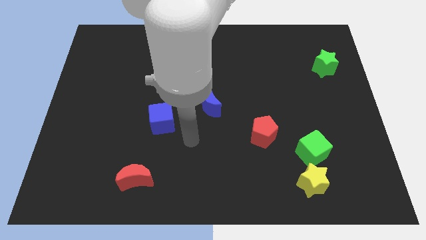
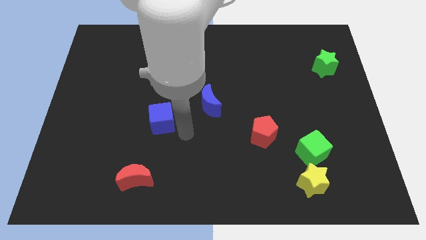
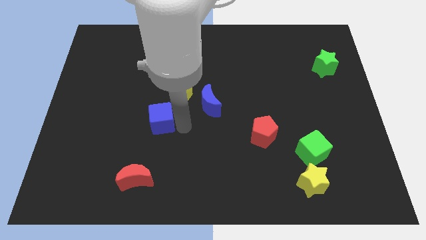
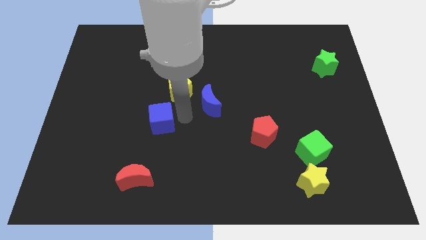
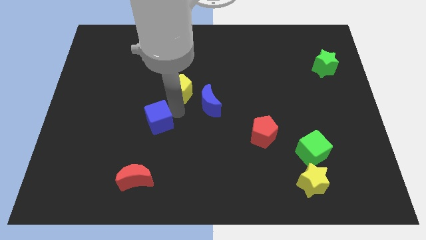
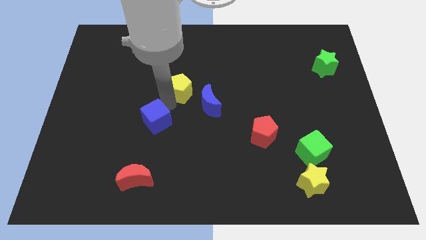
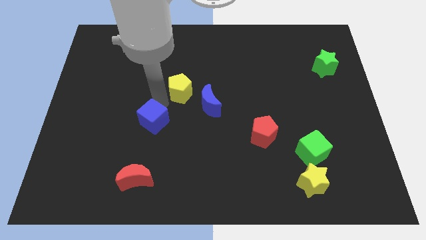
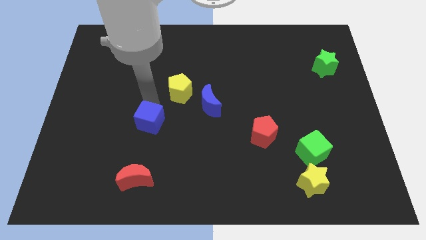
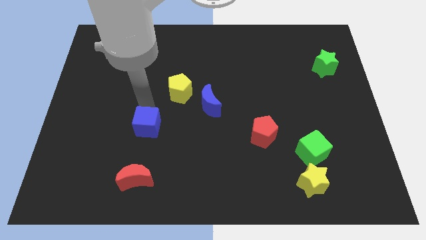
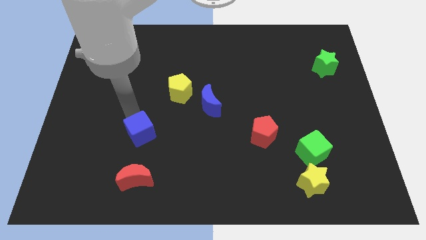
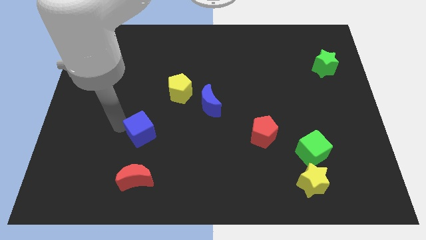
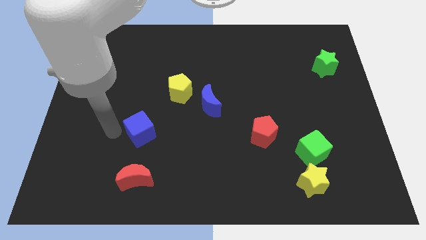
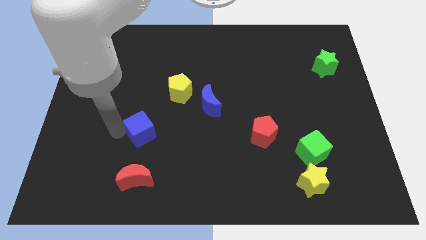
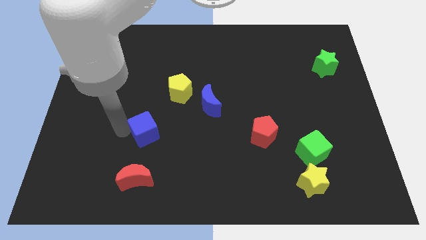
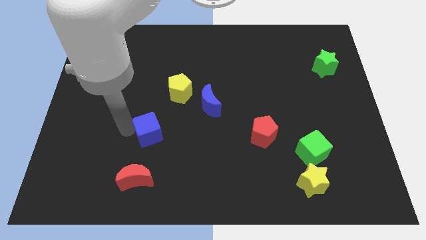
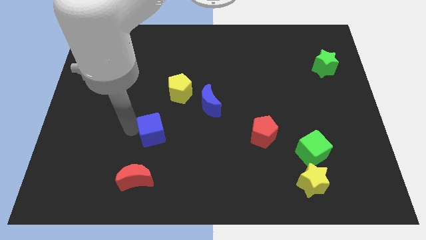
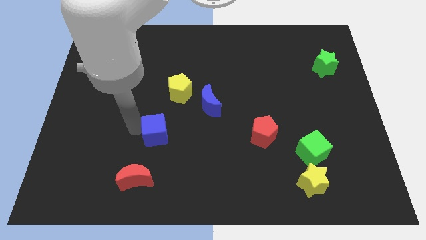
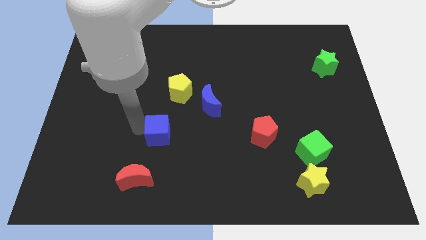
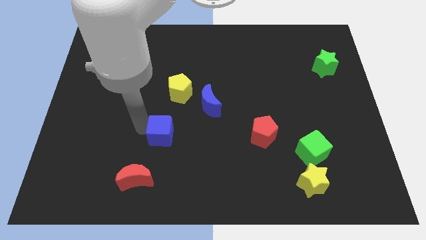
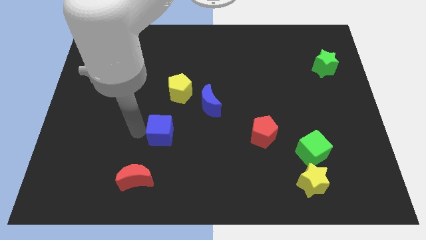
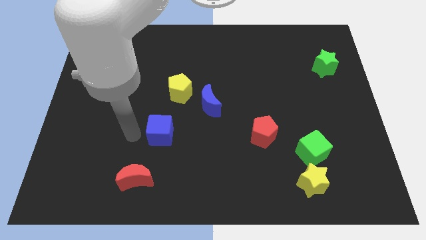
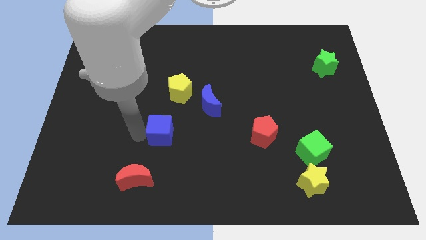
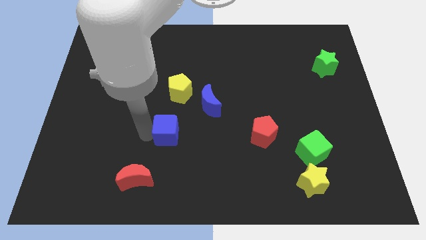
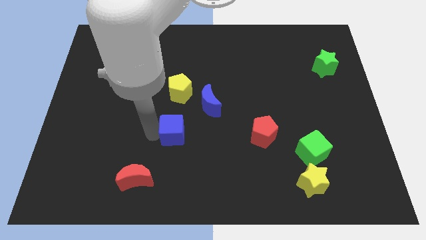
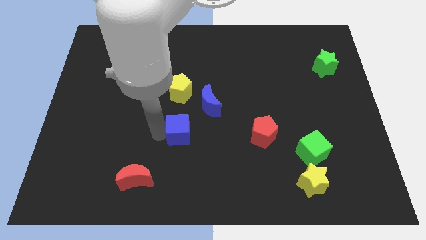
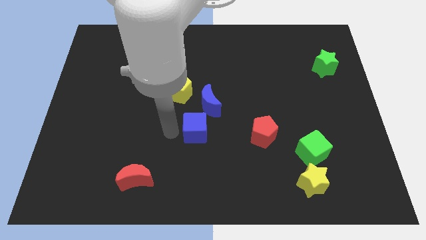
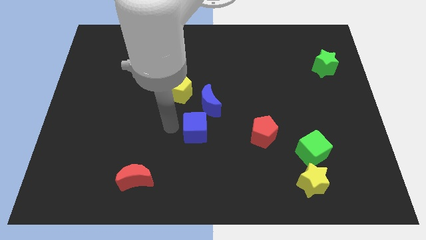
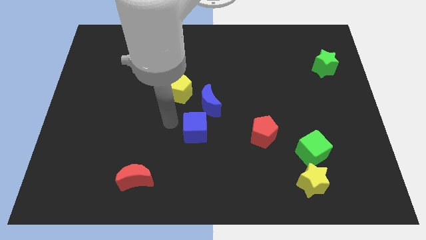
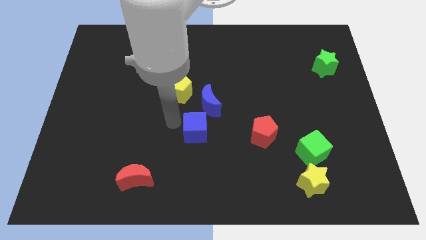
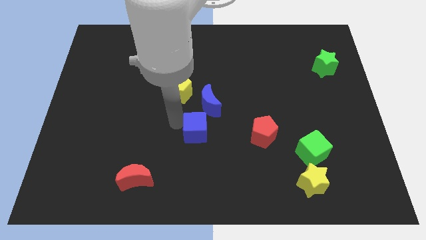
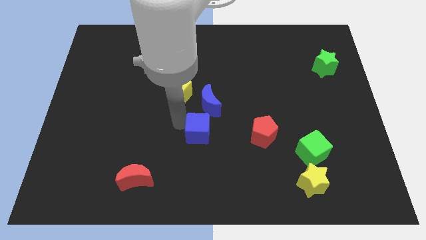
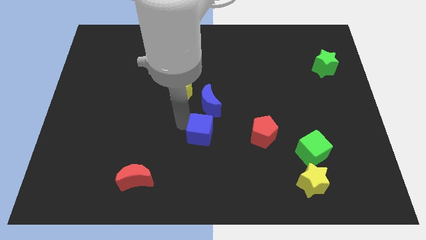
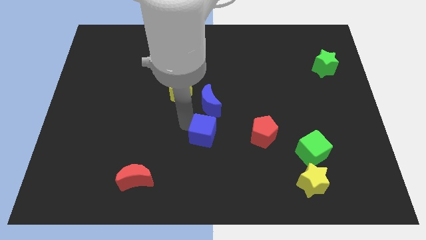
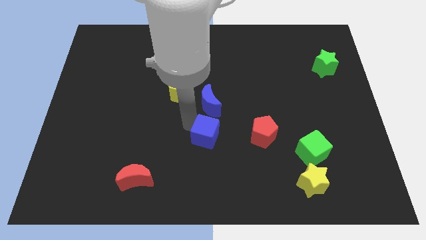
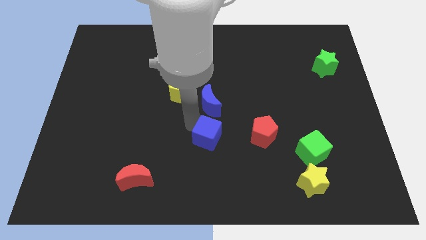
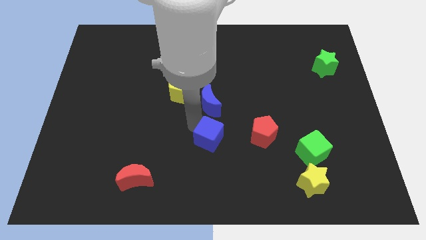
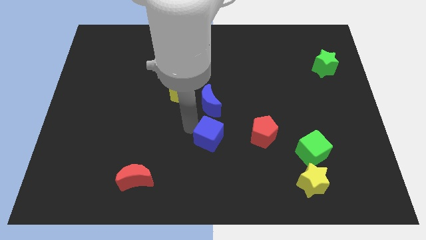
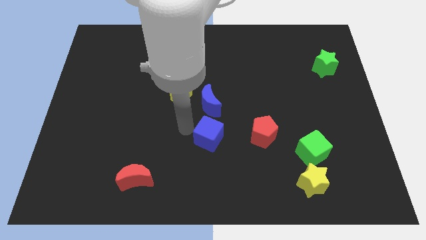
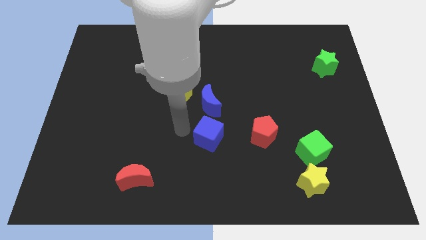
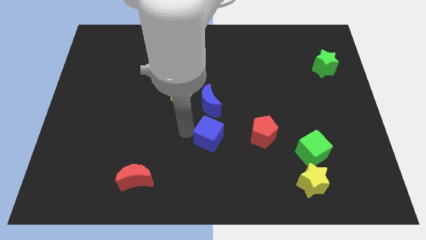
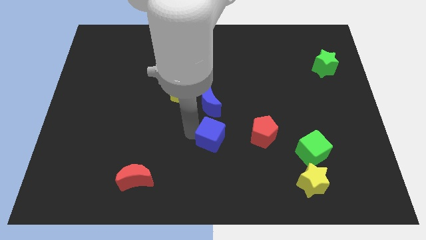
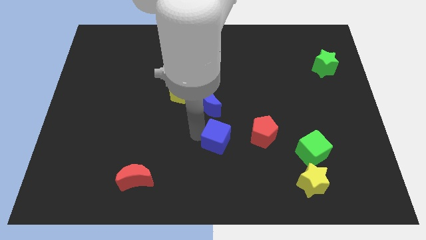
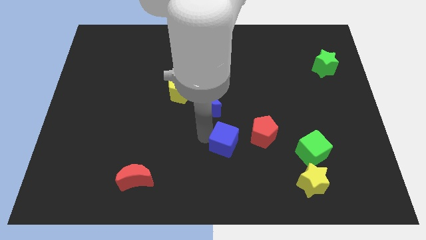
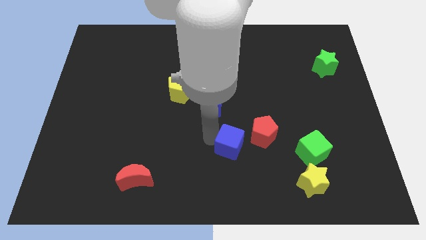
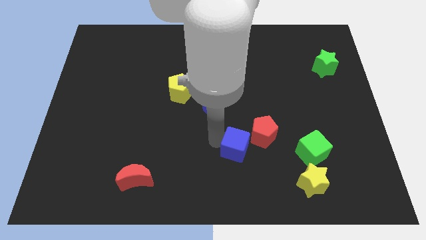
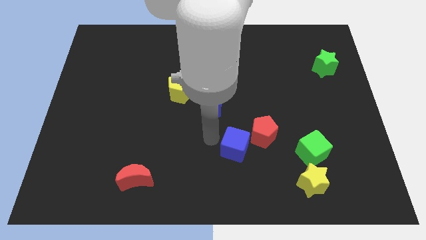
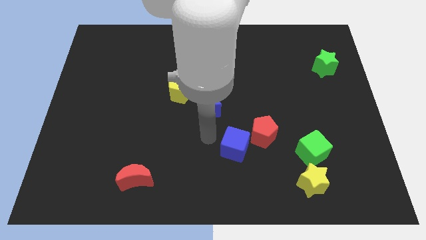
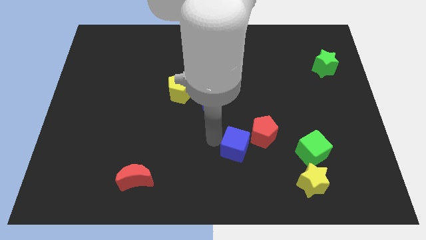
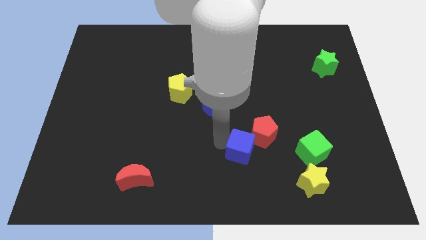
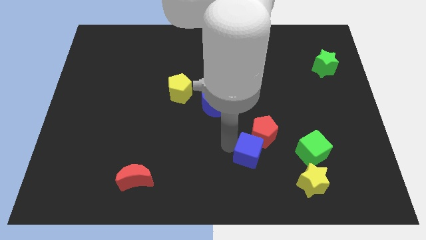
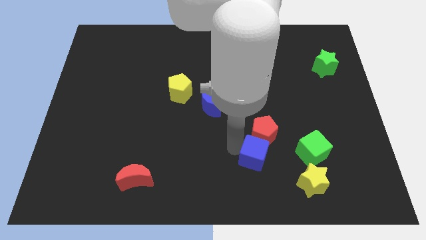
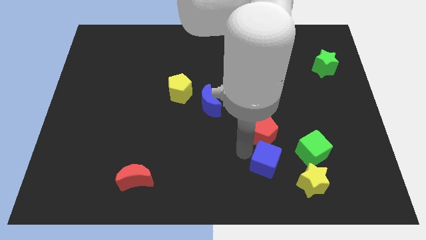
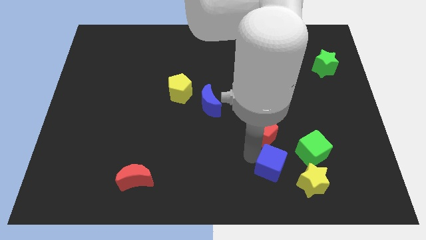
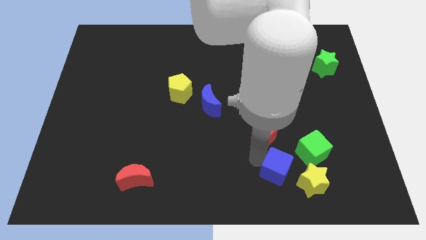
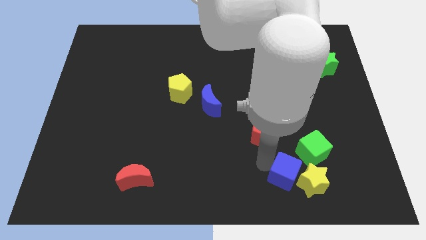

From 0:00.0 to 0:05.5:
put the blue cube towards the yellow star

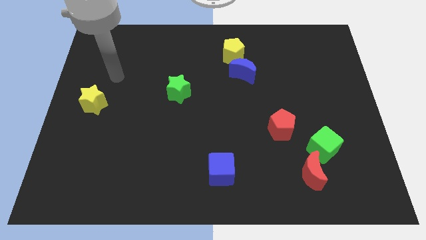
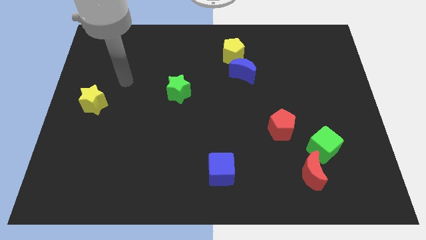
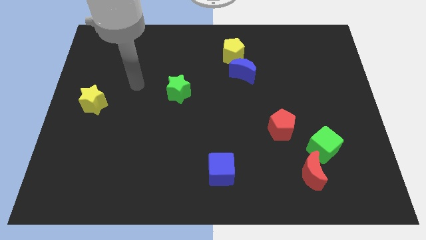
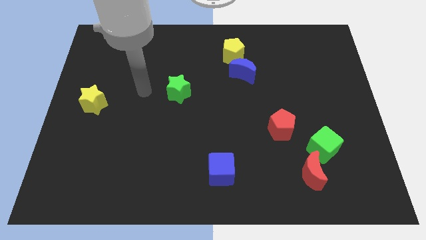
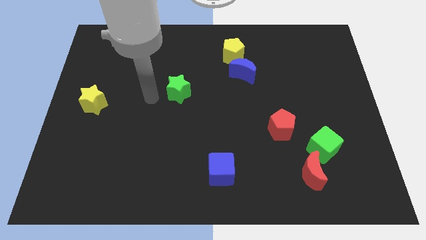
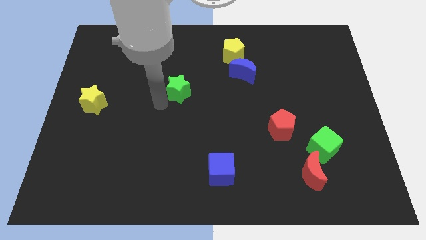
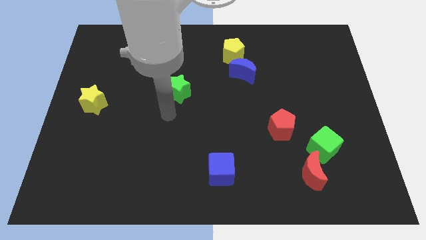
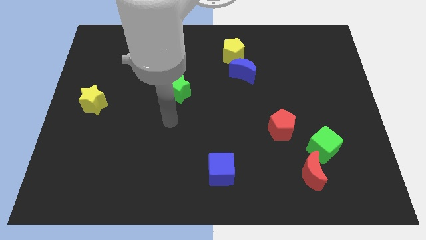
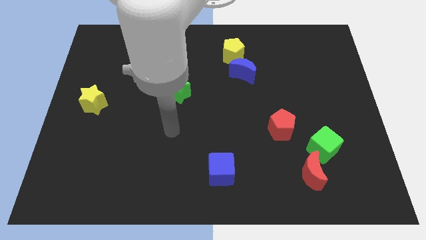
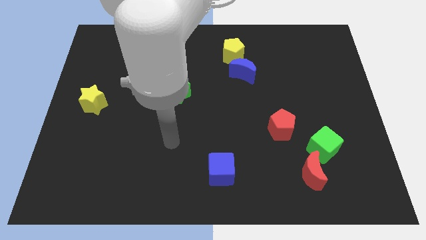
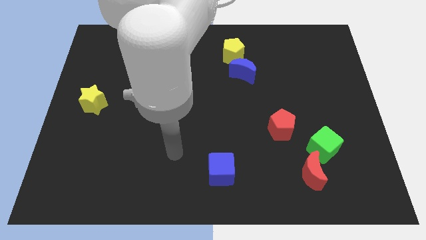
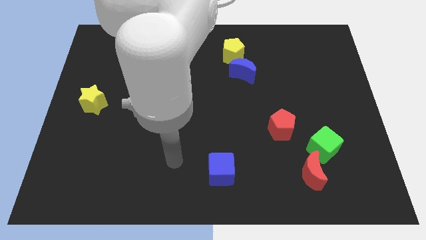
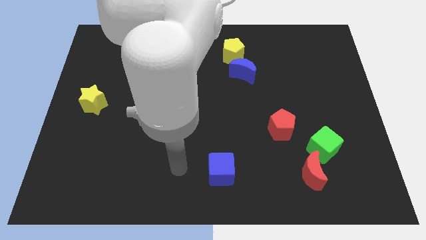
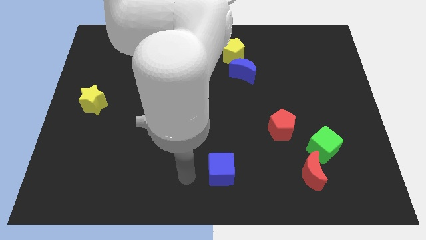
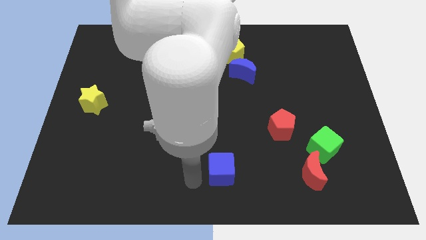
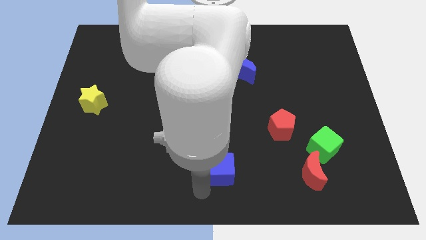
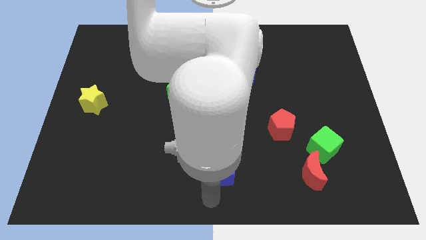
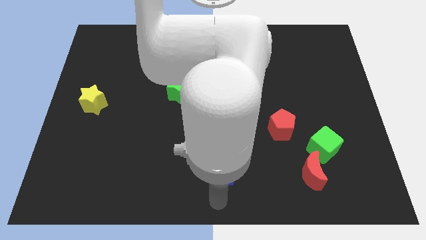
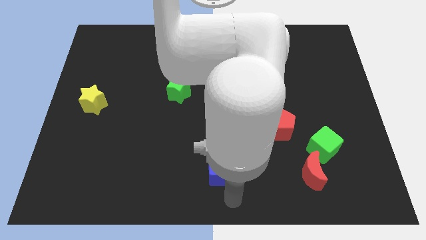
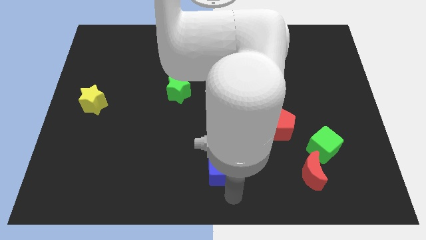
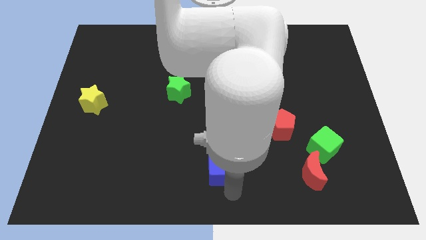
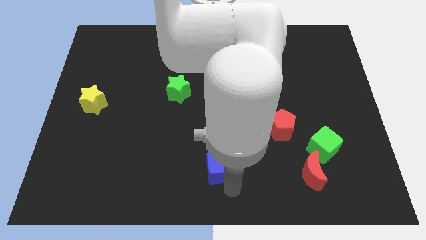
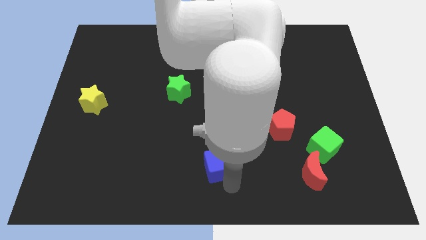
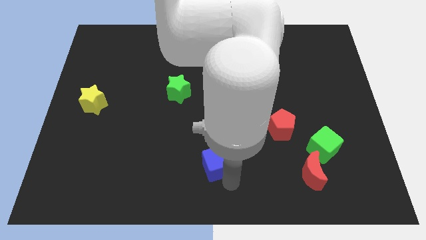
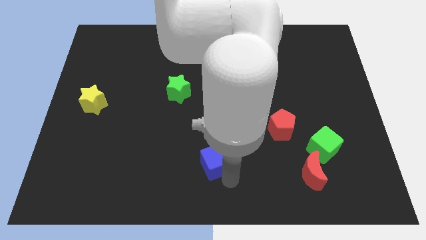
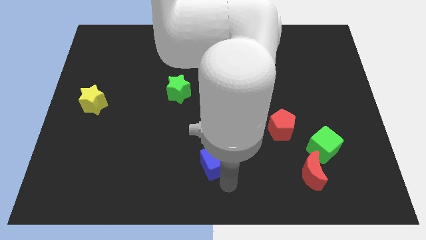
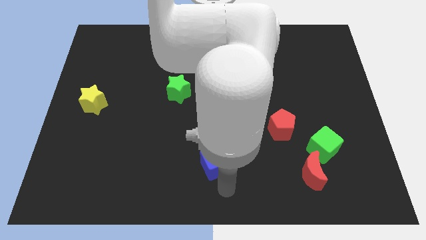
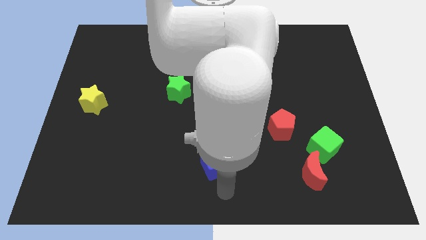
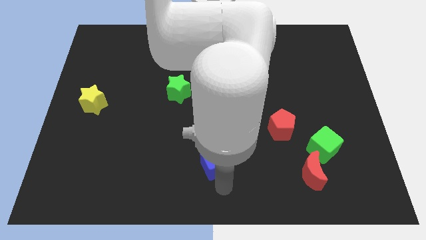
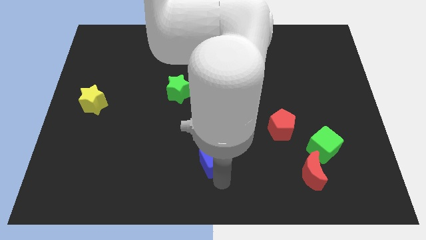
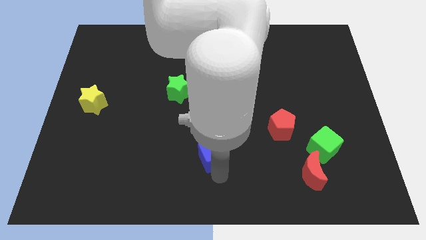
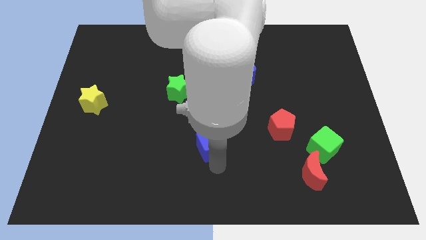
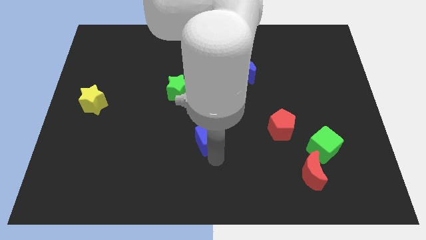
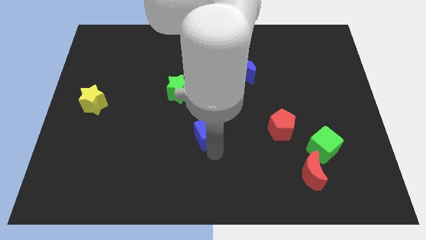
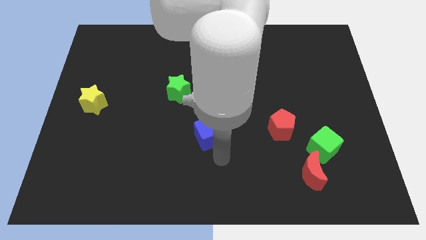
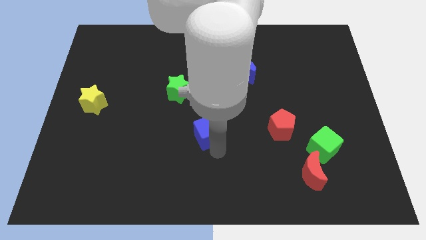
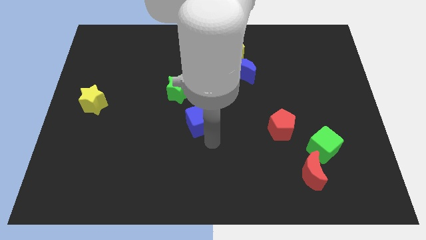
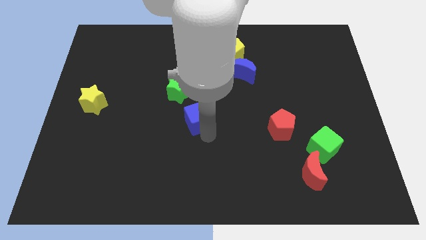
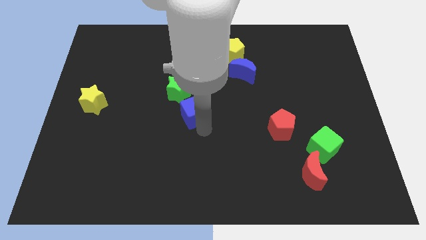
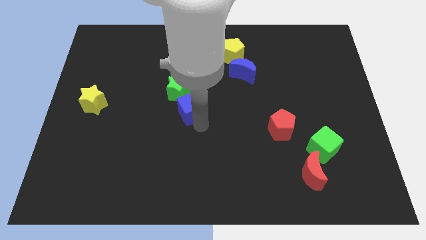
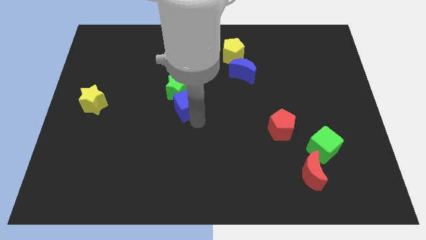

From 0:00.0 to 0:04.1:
slide the blue cube towards the green star
